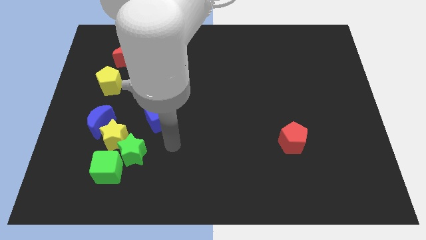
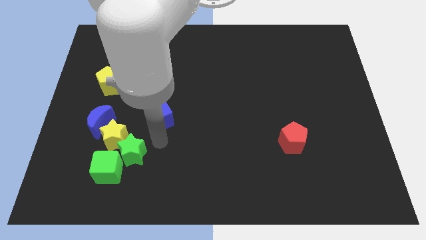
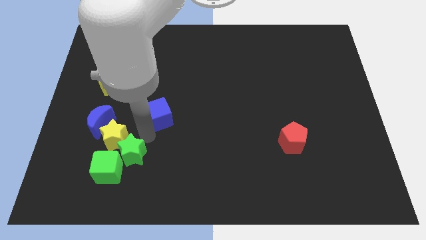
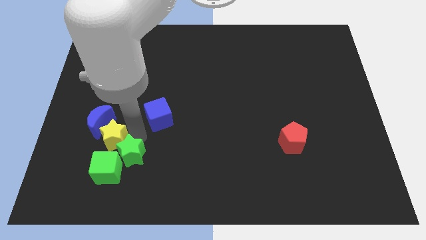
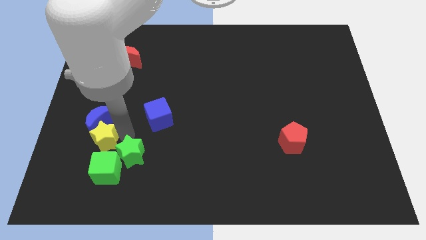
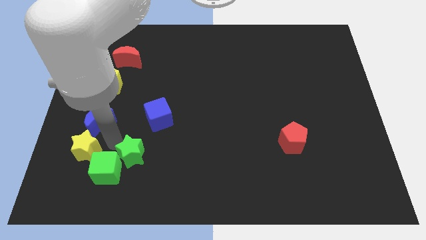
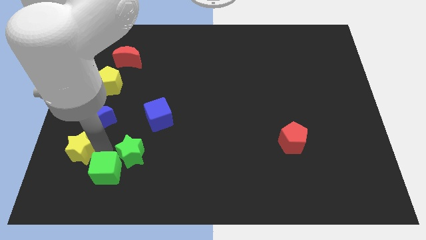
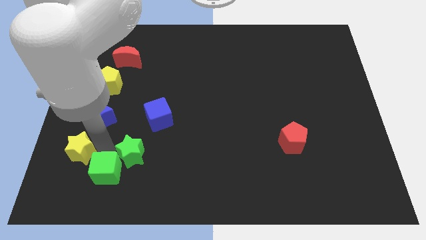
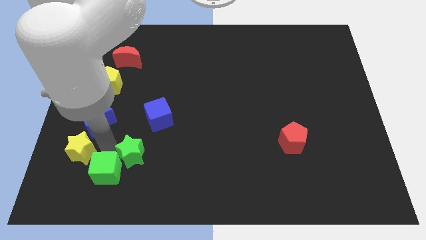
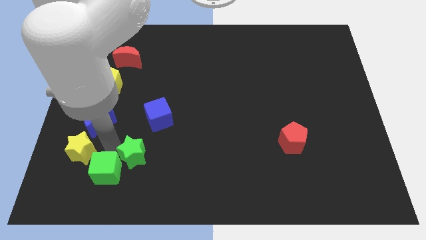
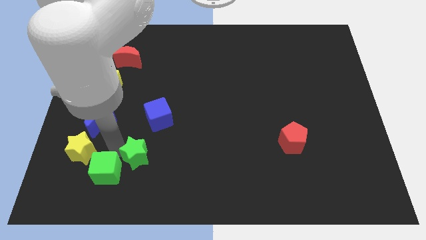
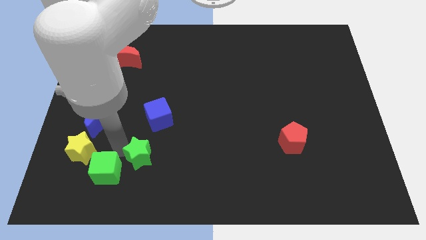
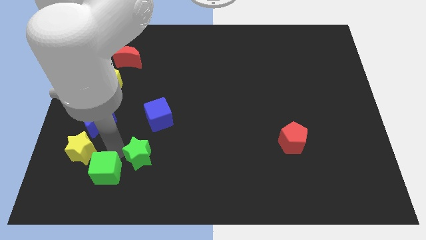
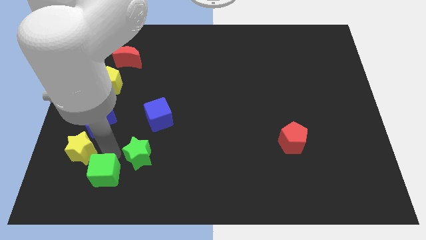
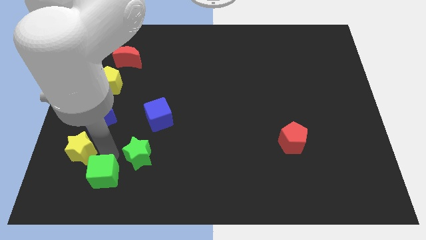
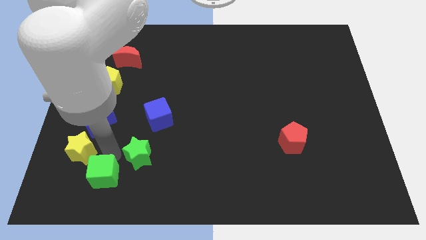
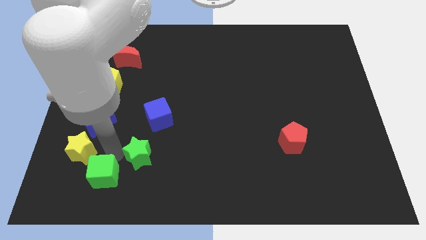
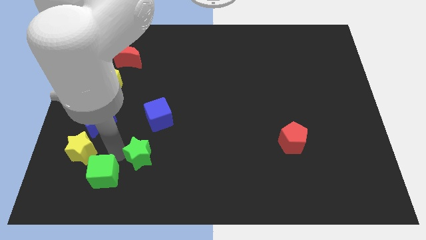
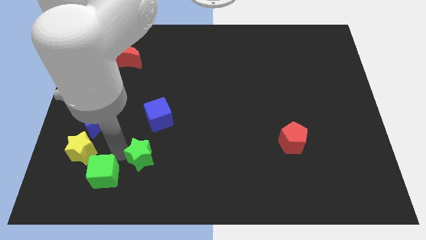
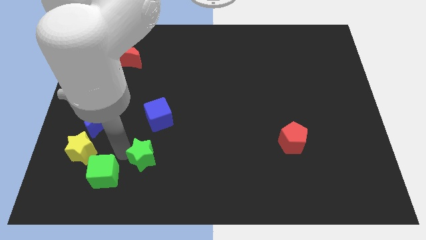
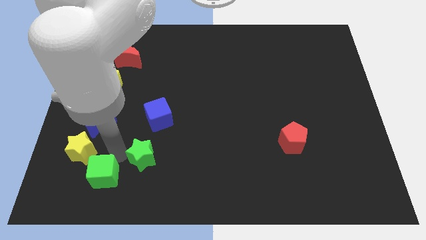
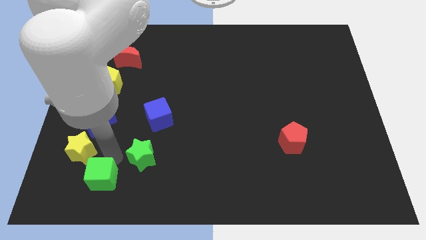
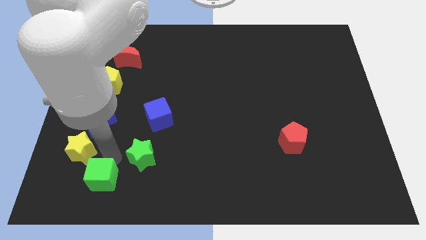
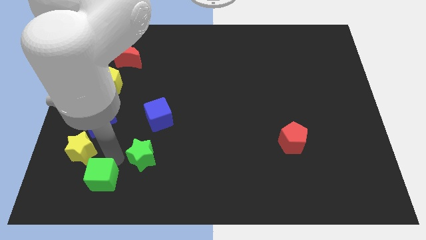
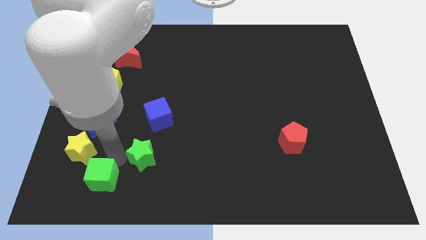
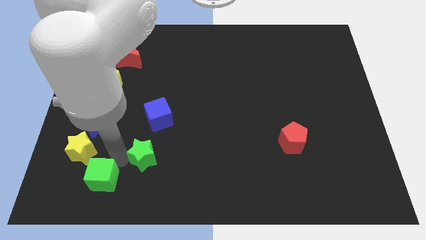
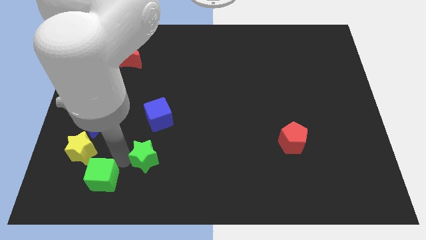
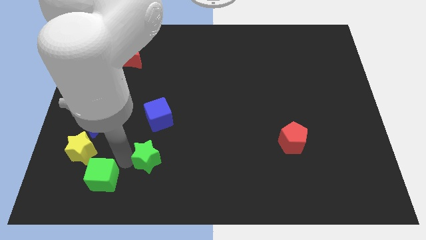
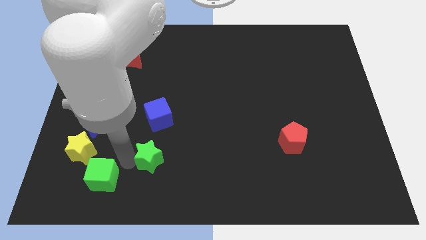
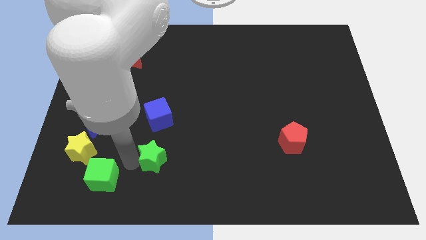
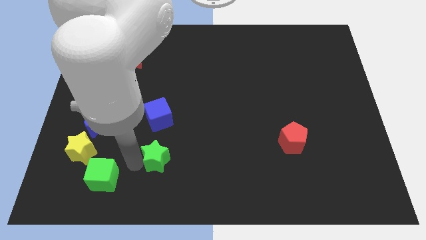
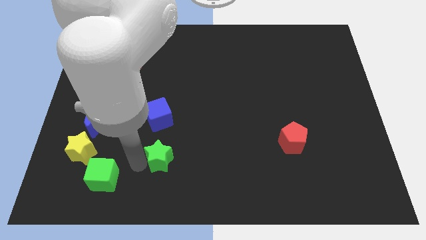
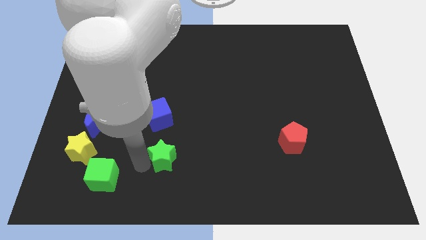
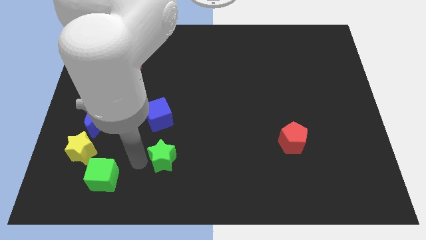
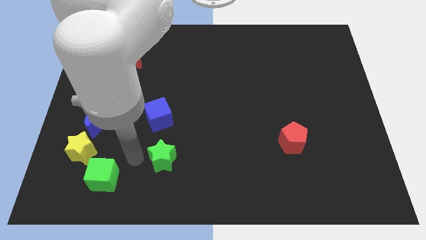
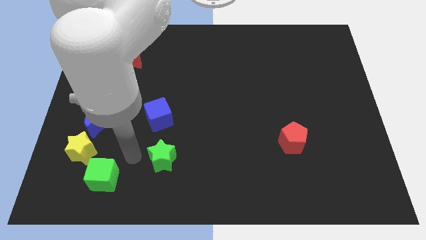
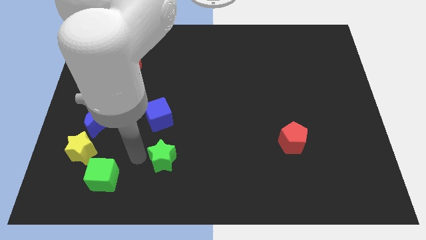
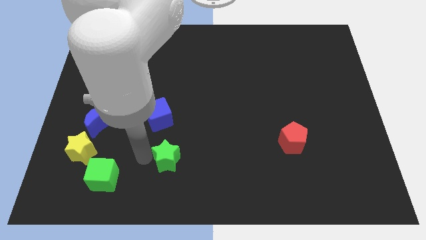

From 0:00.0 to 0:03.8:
slide the green star a little right

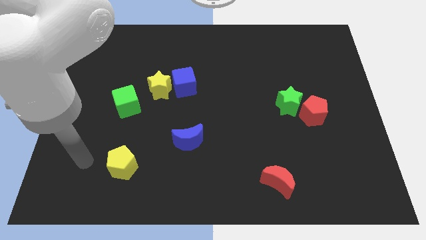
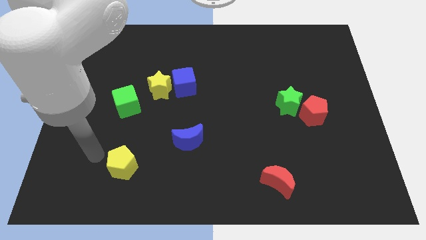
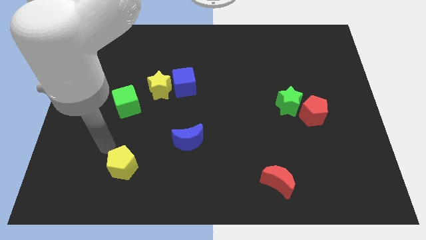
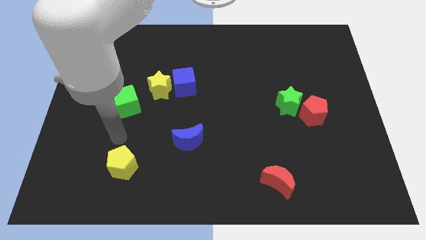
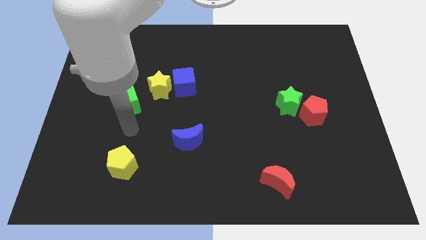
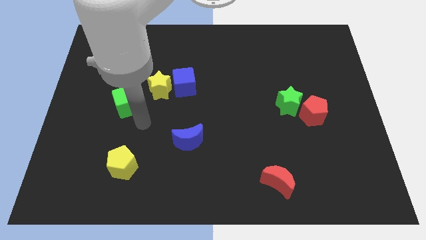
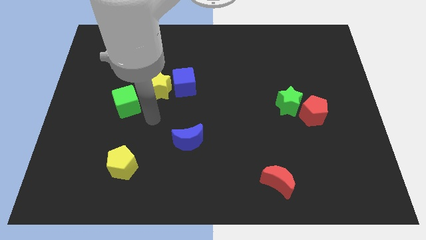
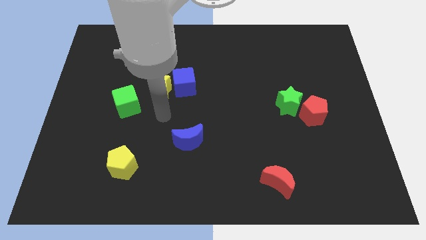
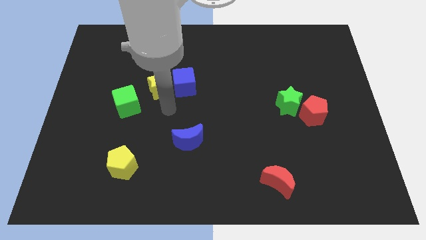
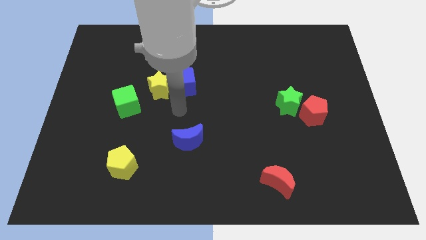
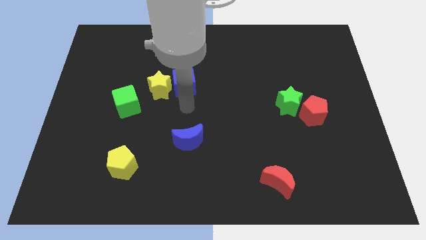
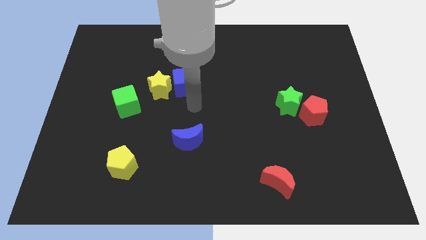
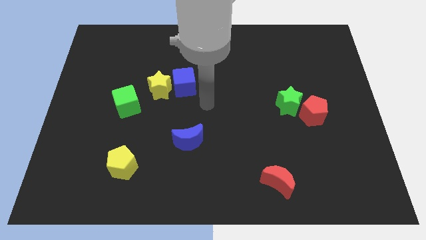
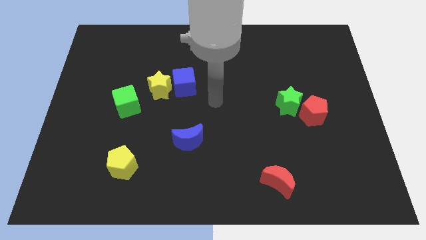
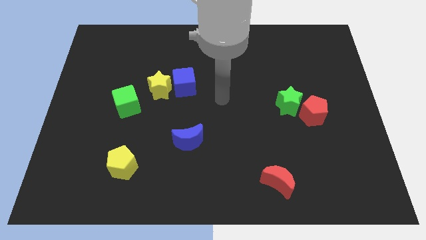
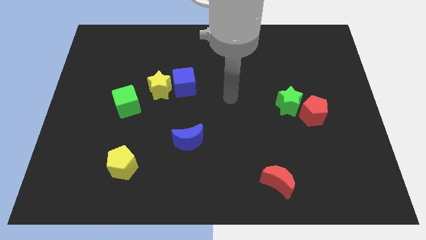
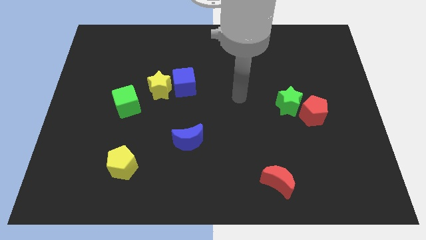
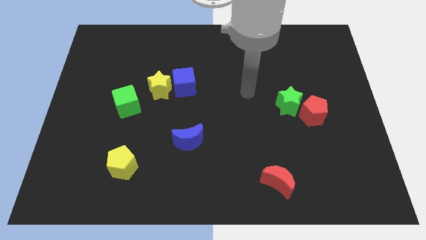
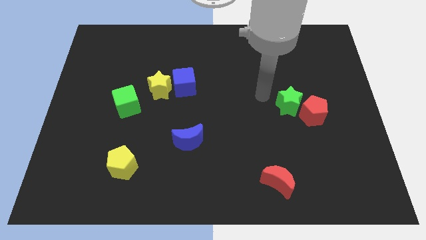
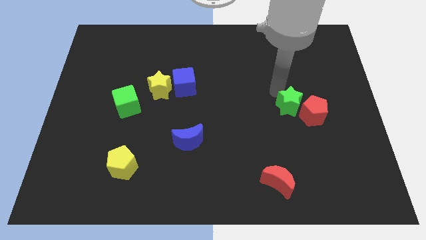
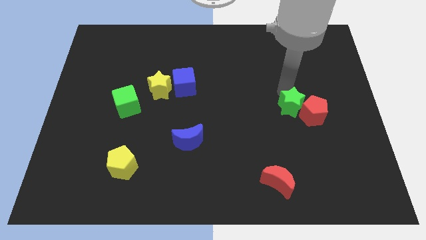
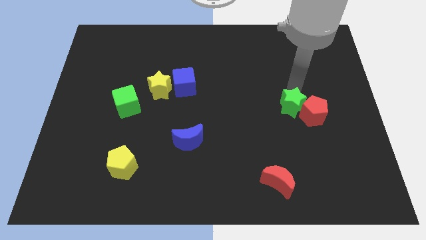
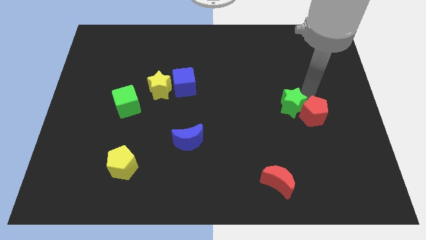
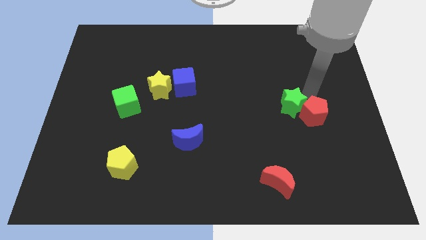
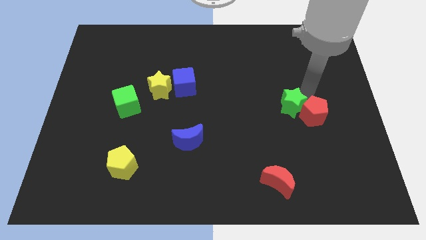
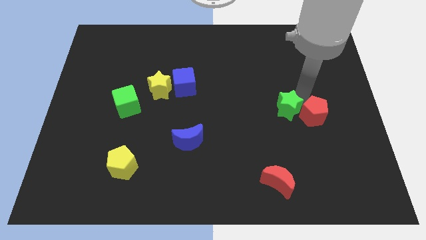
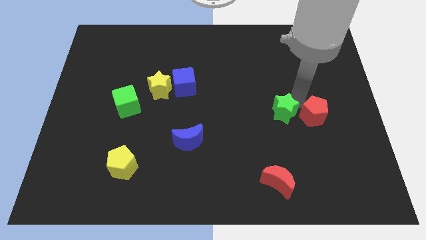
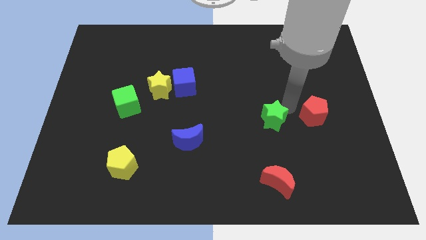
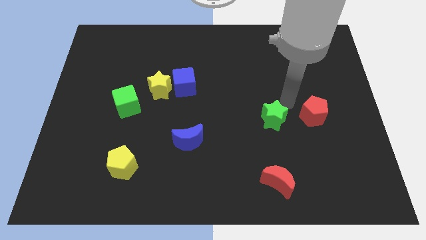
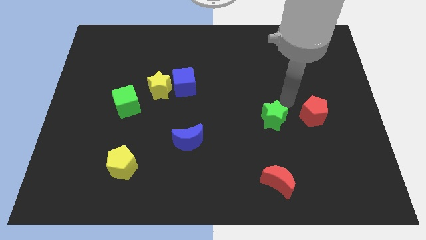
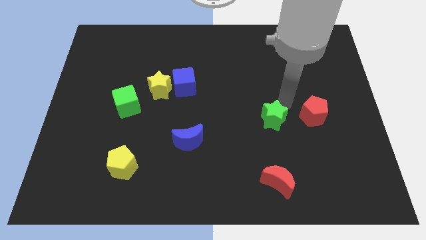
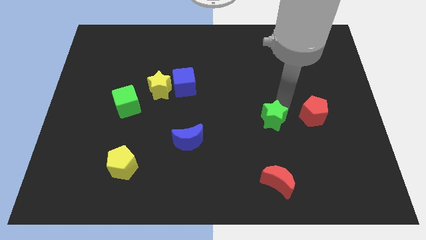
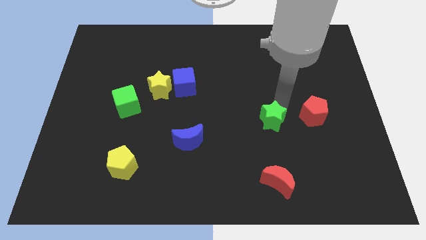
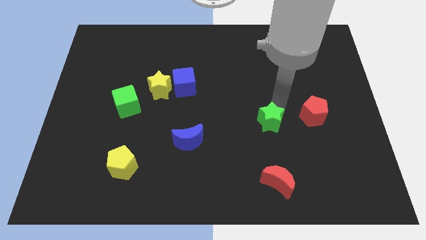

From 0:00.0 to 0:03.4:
slightly slide the green star downwards and to the left

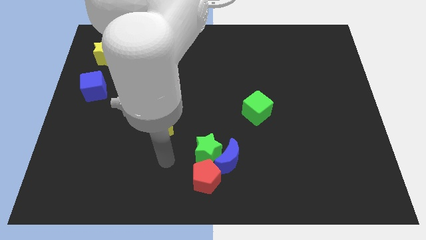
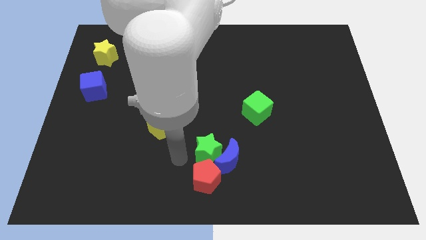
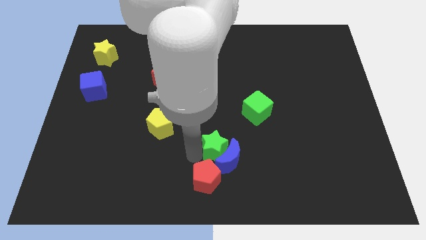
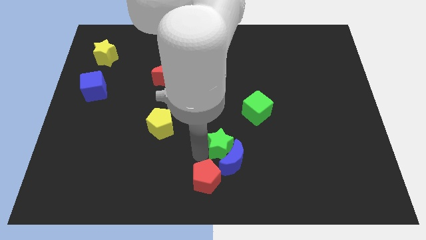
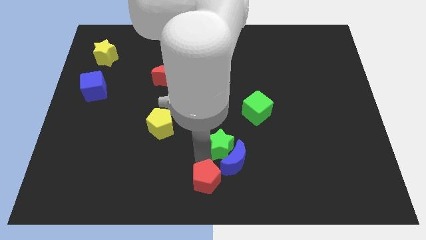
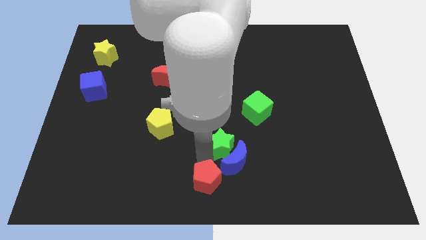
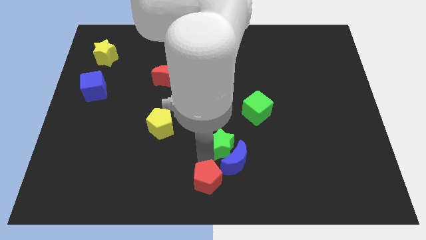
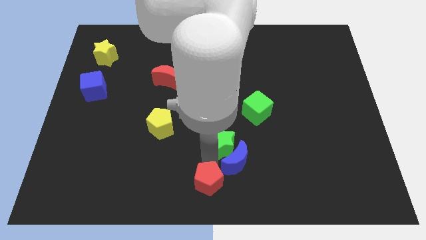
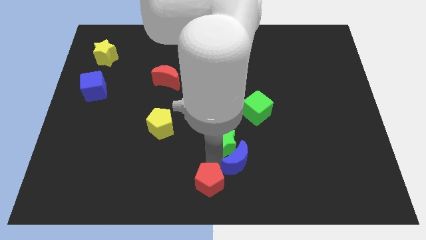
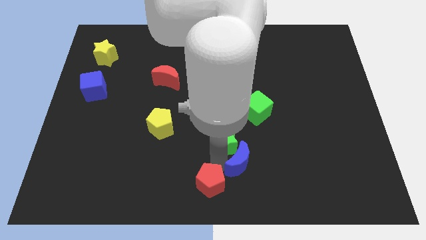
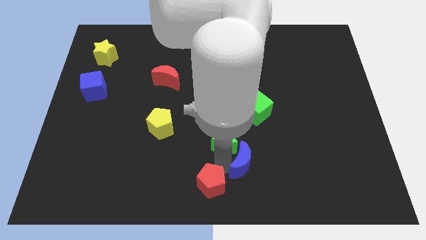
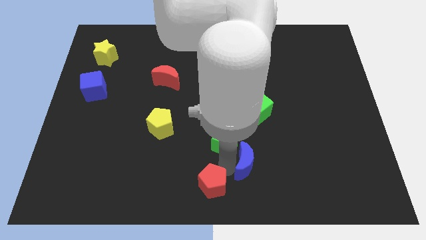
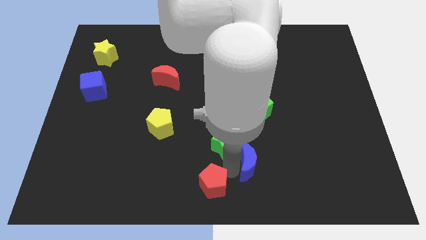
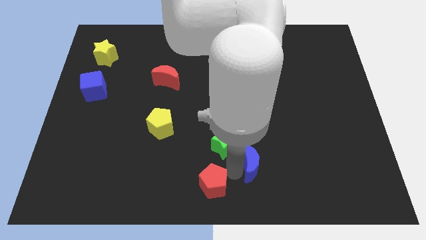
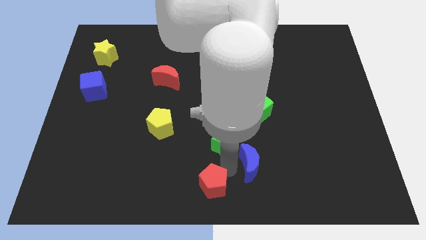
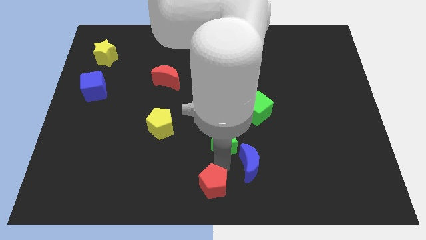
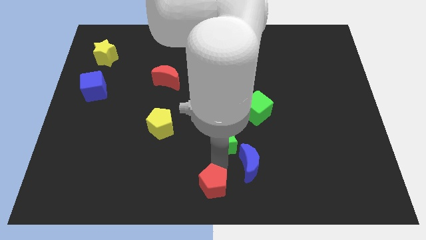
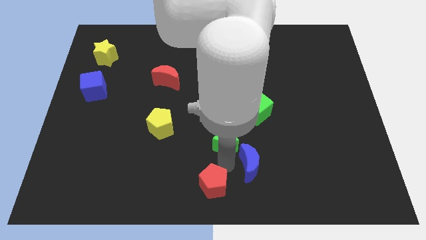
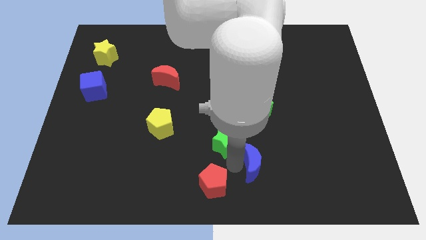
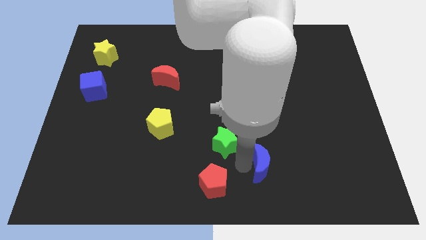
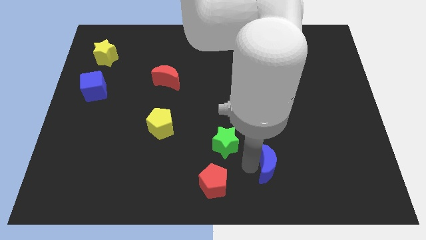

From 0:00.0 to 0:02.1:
move the blue moon somewhat to the right
